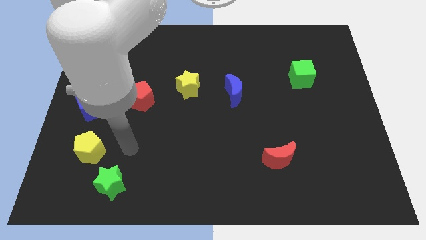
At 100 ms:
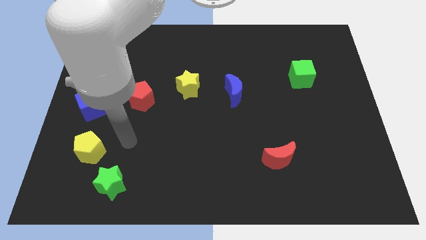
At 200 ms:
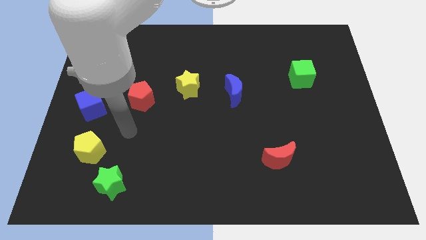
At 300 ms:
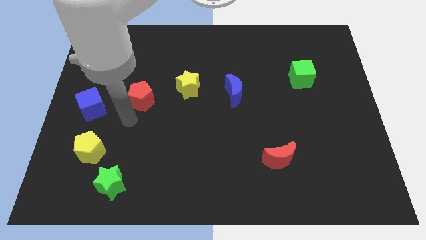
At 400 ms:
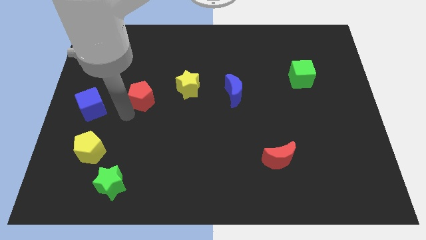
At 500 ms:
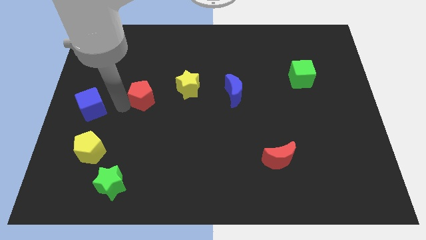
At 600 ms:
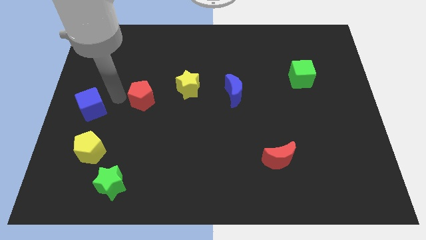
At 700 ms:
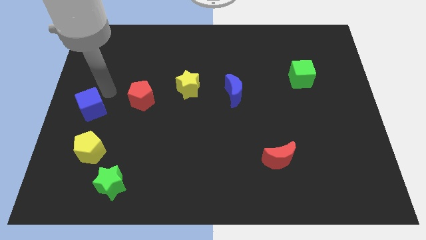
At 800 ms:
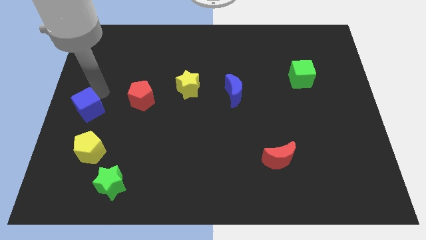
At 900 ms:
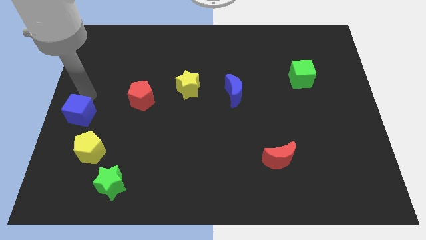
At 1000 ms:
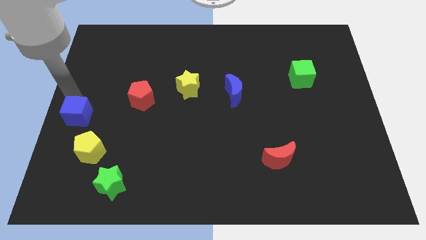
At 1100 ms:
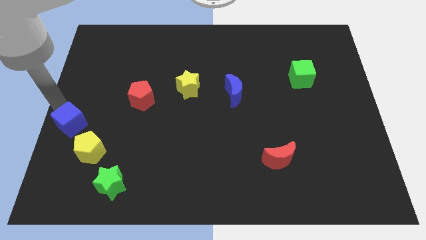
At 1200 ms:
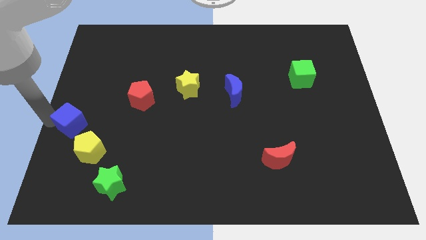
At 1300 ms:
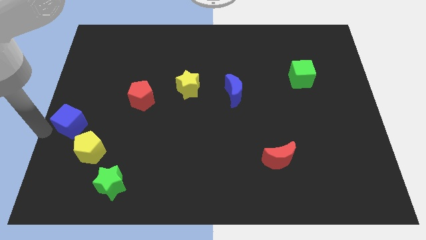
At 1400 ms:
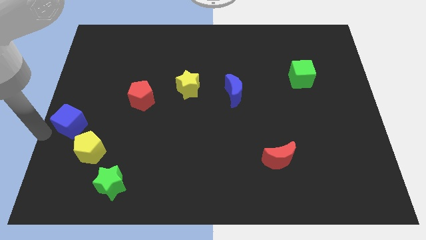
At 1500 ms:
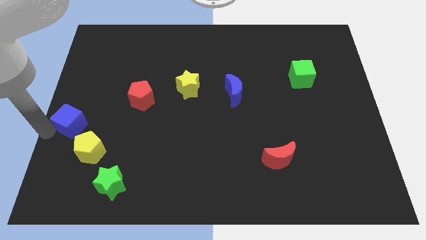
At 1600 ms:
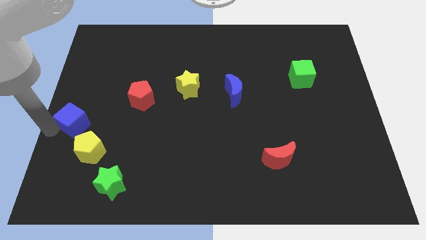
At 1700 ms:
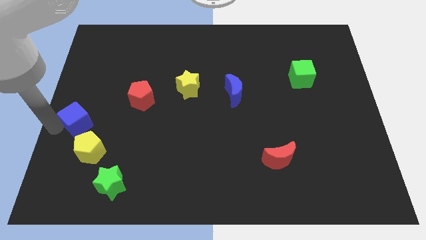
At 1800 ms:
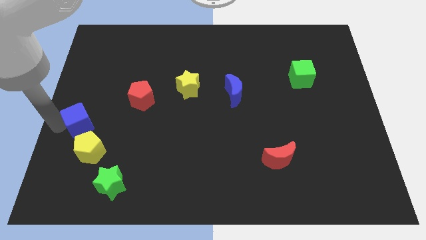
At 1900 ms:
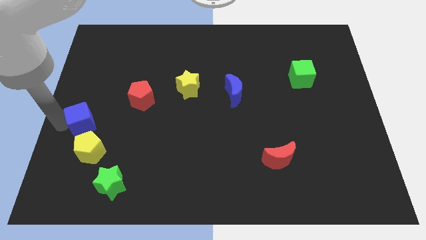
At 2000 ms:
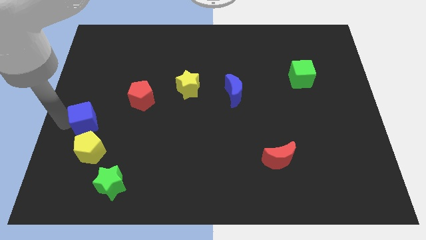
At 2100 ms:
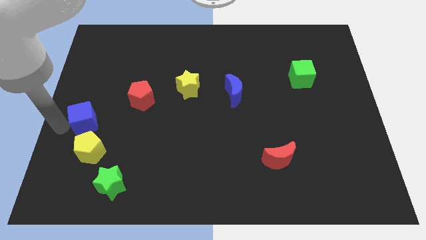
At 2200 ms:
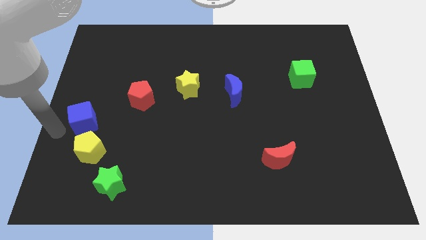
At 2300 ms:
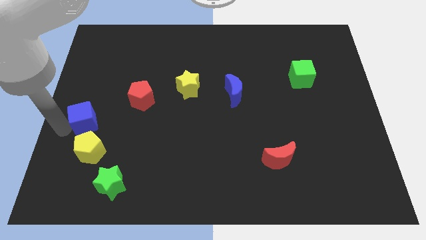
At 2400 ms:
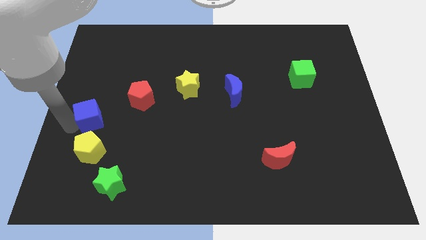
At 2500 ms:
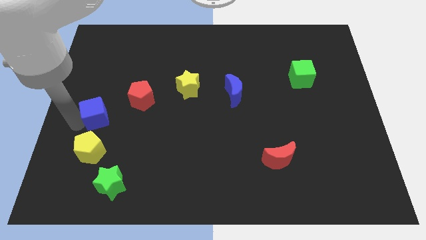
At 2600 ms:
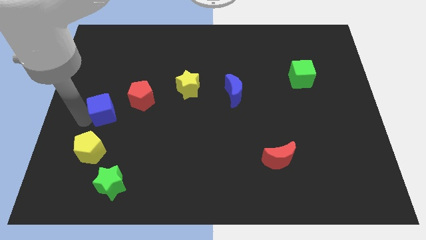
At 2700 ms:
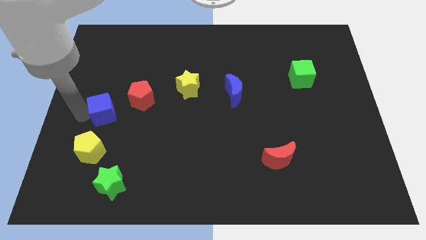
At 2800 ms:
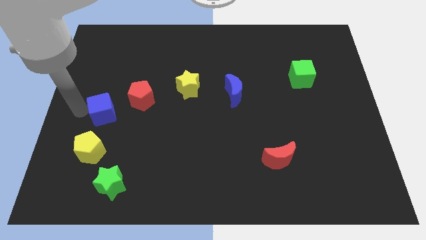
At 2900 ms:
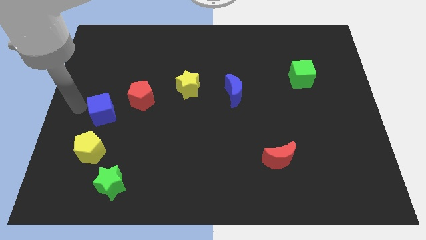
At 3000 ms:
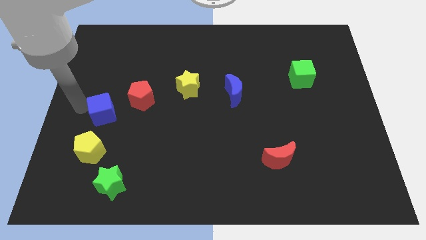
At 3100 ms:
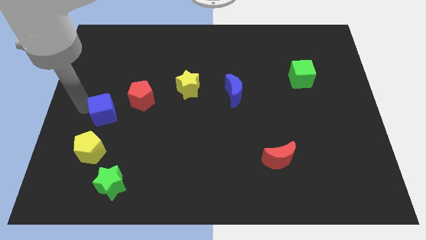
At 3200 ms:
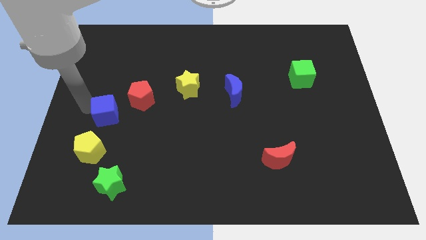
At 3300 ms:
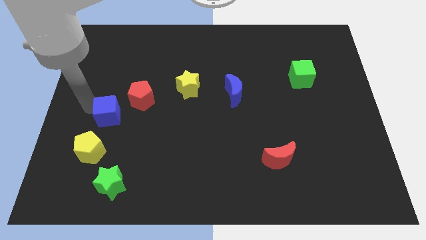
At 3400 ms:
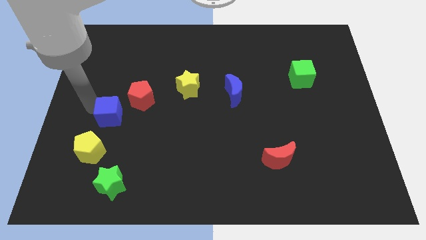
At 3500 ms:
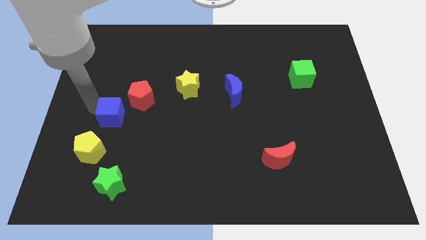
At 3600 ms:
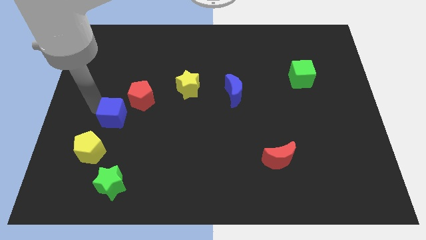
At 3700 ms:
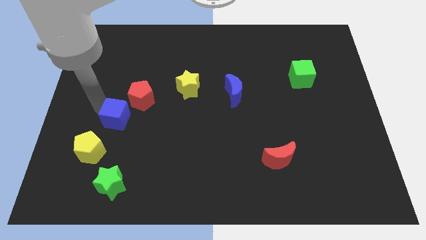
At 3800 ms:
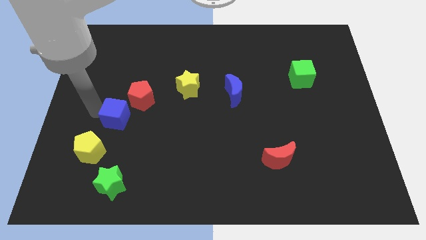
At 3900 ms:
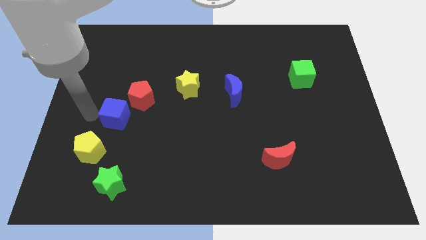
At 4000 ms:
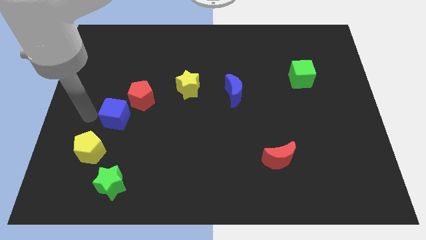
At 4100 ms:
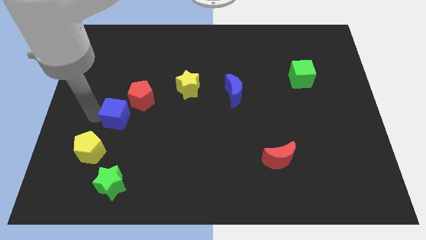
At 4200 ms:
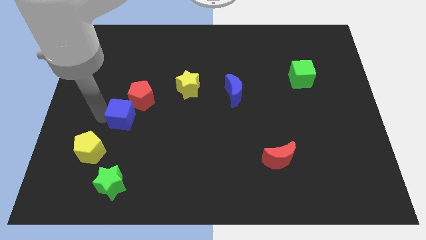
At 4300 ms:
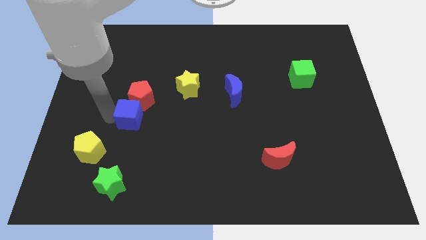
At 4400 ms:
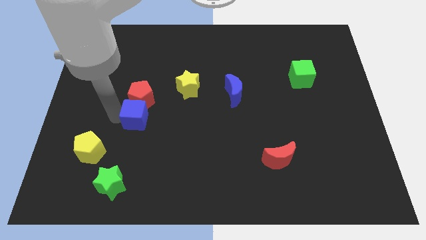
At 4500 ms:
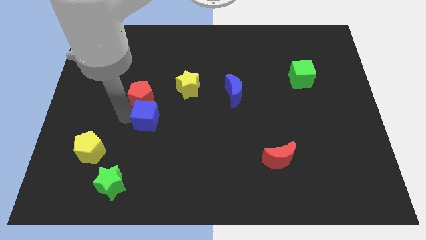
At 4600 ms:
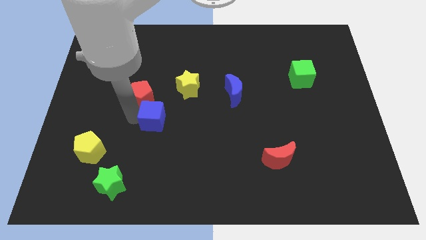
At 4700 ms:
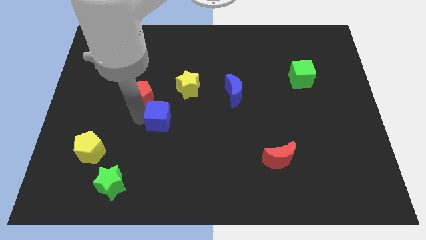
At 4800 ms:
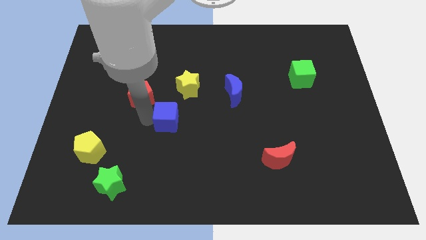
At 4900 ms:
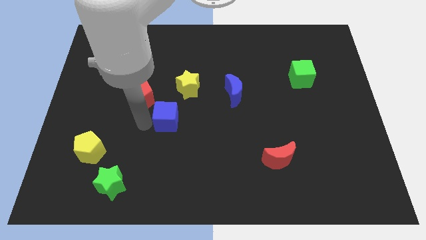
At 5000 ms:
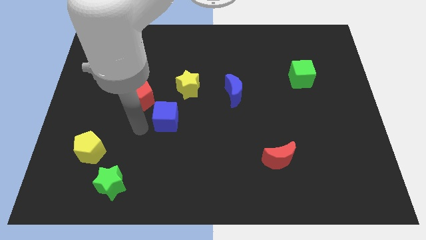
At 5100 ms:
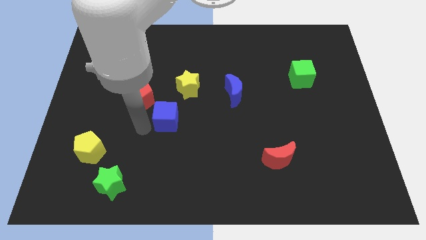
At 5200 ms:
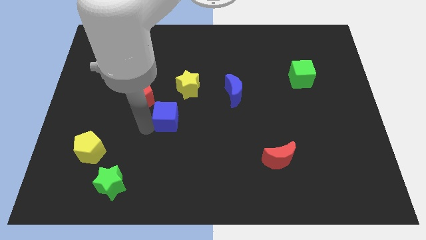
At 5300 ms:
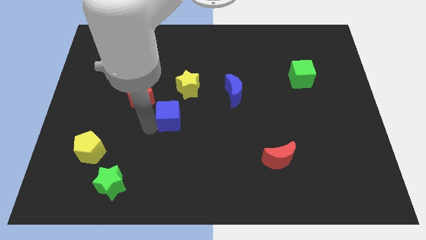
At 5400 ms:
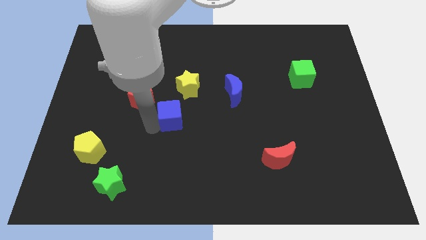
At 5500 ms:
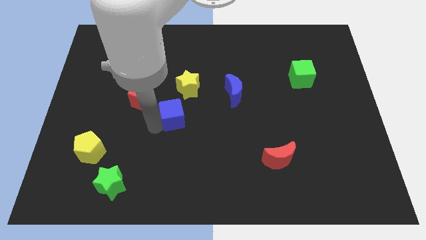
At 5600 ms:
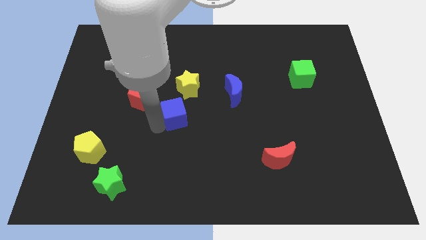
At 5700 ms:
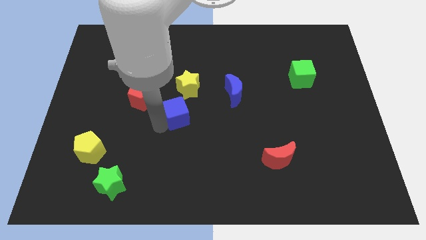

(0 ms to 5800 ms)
move the blue cube to the right

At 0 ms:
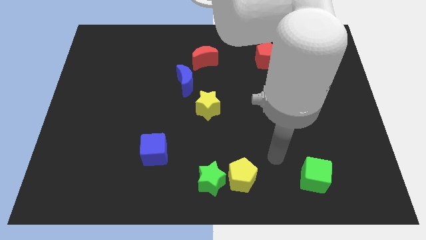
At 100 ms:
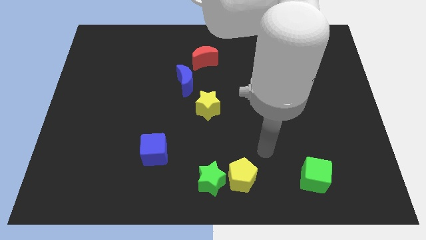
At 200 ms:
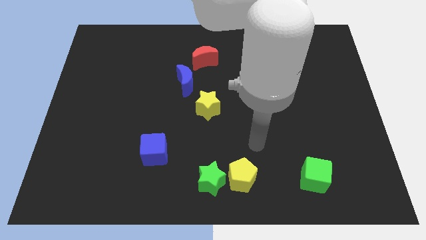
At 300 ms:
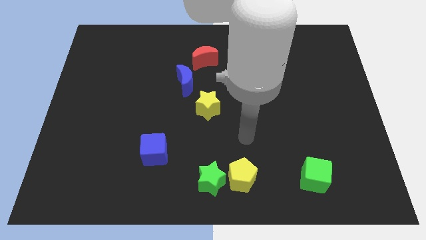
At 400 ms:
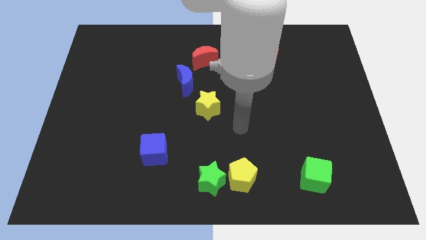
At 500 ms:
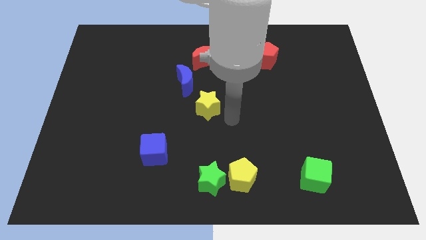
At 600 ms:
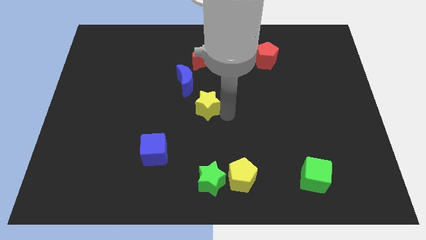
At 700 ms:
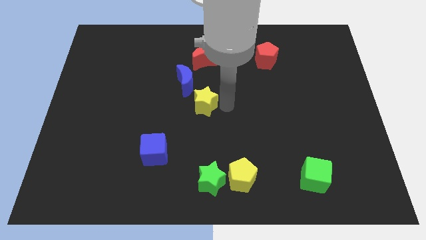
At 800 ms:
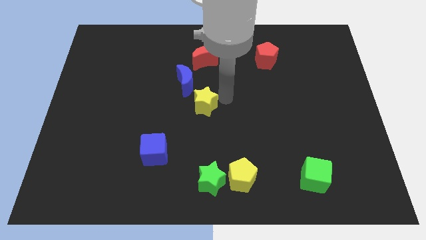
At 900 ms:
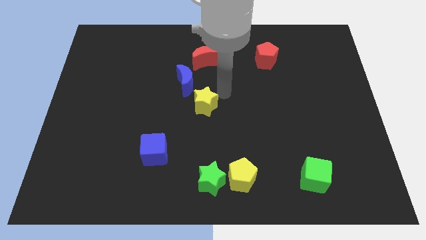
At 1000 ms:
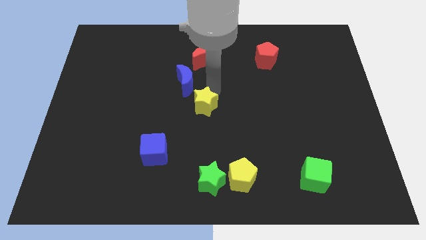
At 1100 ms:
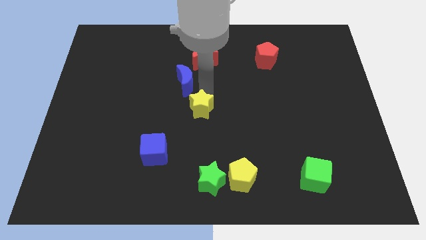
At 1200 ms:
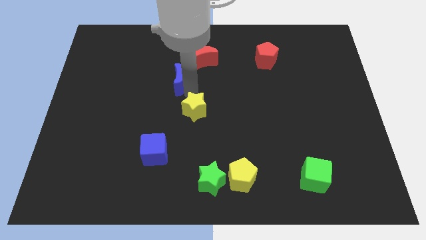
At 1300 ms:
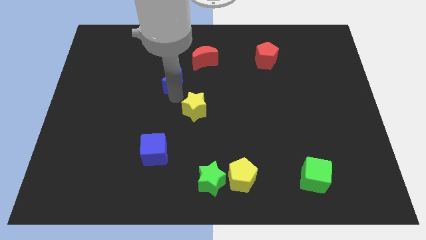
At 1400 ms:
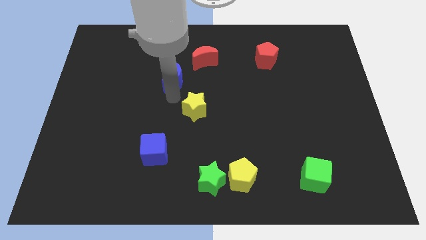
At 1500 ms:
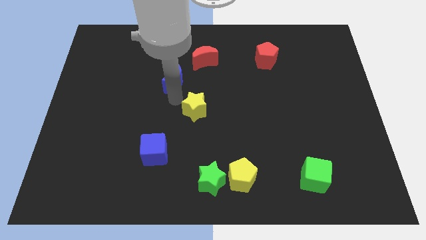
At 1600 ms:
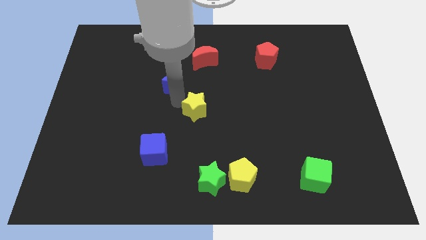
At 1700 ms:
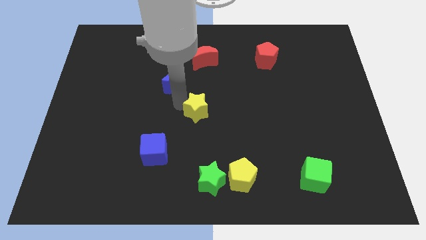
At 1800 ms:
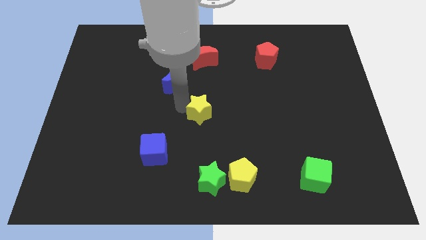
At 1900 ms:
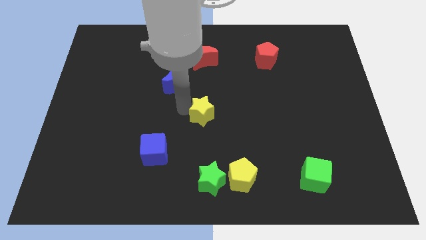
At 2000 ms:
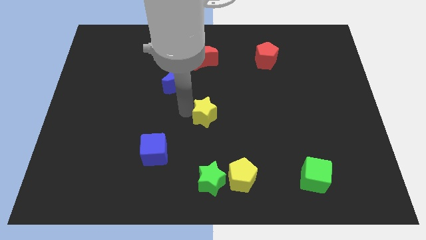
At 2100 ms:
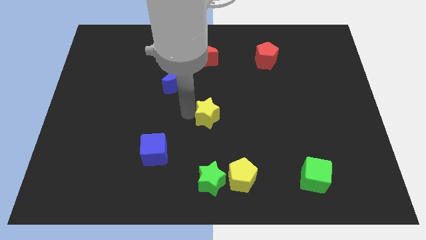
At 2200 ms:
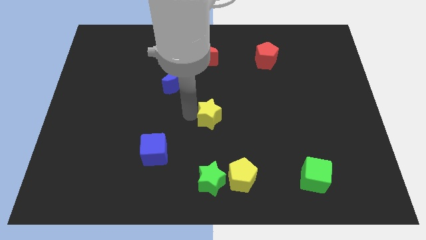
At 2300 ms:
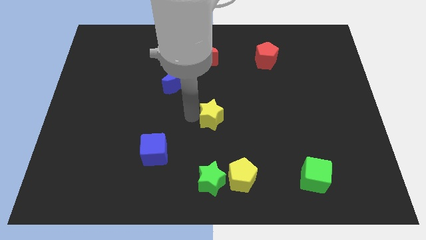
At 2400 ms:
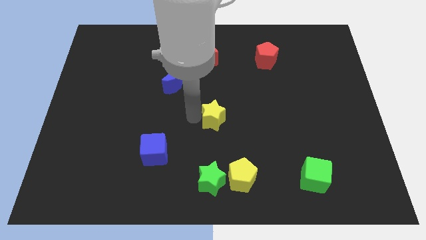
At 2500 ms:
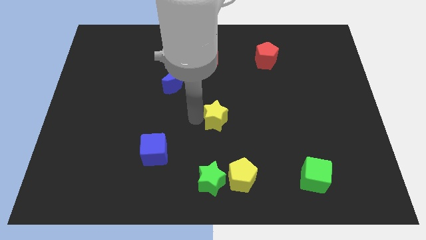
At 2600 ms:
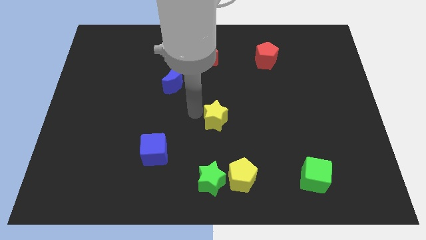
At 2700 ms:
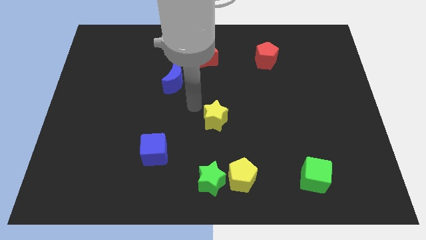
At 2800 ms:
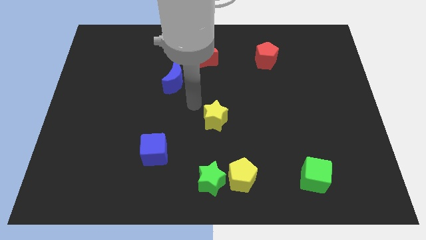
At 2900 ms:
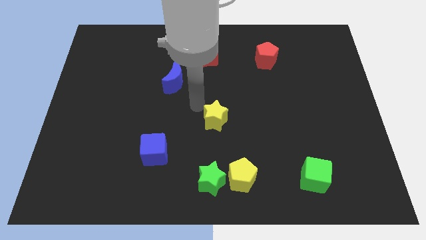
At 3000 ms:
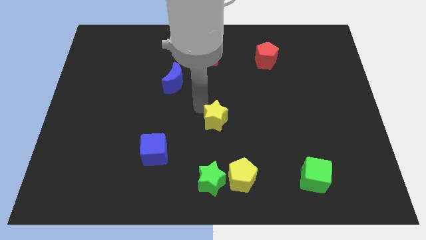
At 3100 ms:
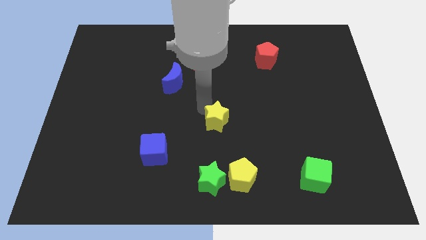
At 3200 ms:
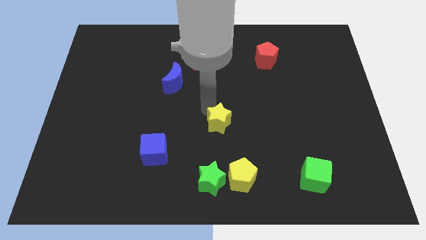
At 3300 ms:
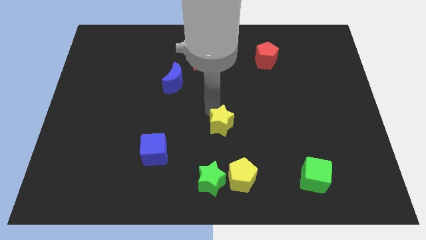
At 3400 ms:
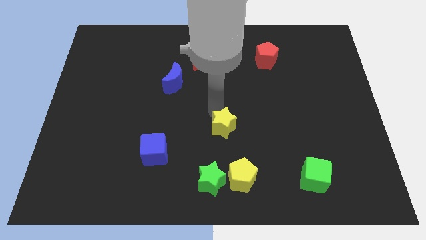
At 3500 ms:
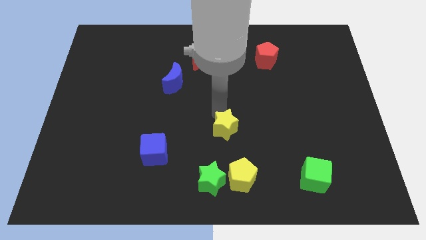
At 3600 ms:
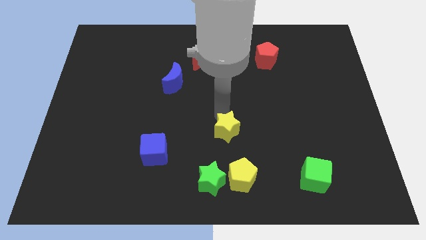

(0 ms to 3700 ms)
slide the yellow star down and right slightly
